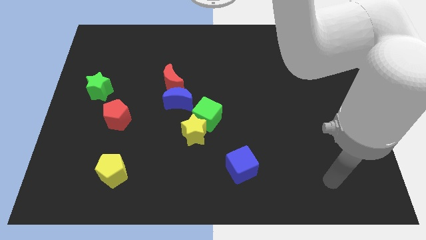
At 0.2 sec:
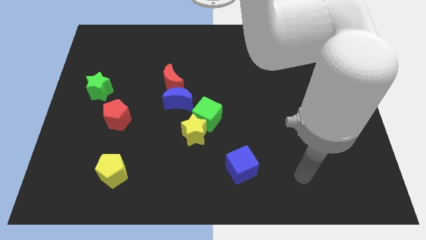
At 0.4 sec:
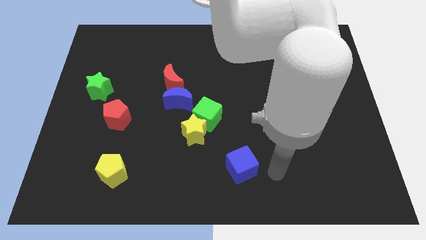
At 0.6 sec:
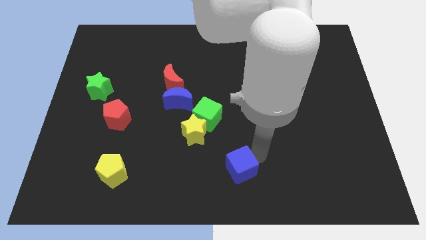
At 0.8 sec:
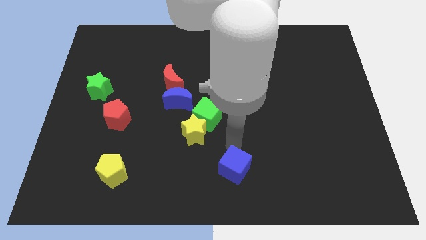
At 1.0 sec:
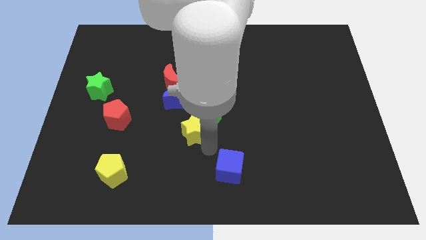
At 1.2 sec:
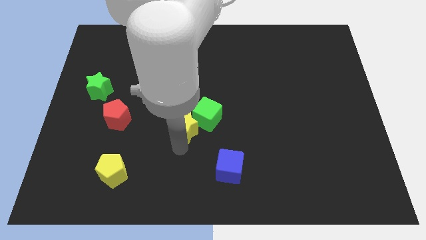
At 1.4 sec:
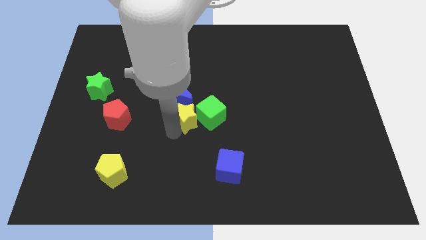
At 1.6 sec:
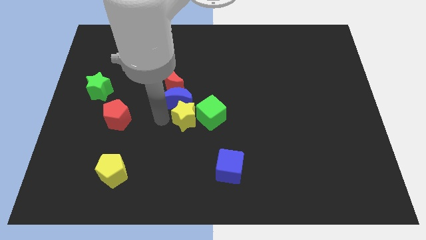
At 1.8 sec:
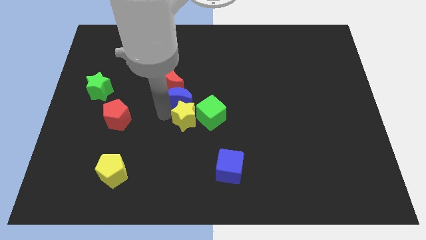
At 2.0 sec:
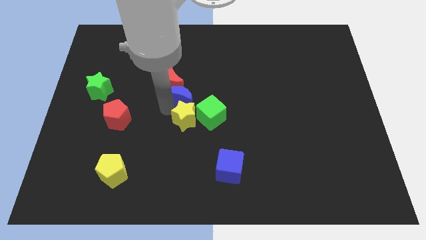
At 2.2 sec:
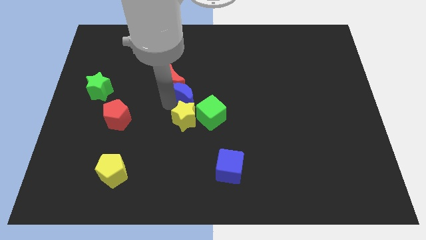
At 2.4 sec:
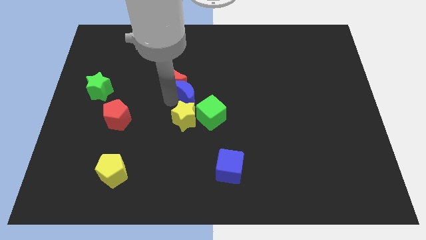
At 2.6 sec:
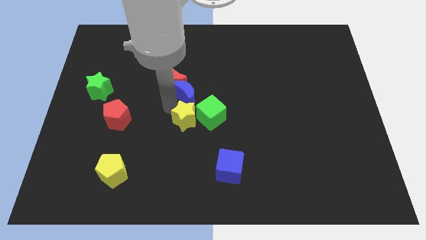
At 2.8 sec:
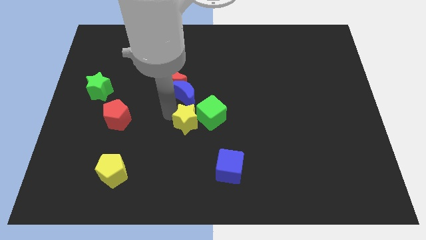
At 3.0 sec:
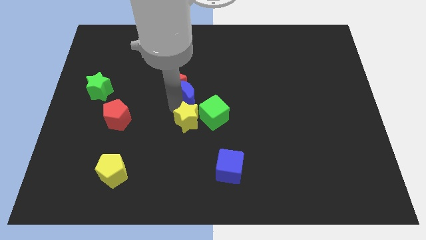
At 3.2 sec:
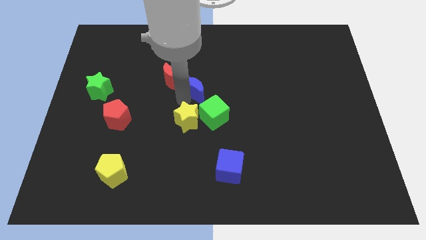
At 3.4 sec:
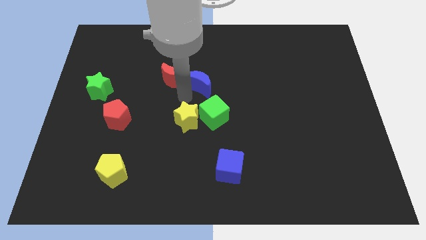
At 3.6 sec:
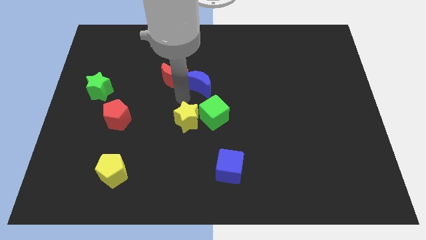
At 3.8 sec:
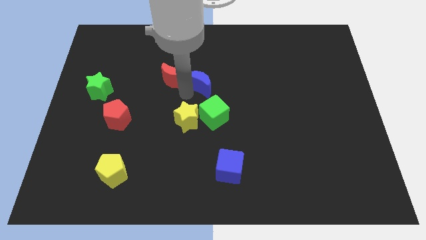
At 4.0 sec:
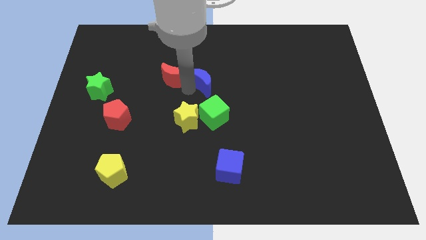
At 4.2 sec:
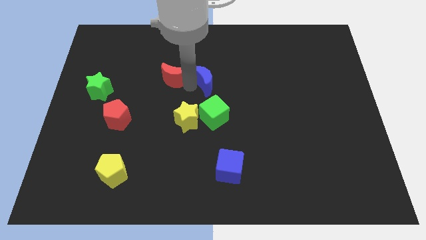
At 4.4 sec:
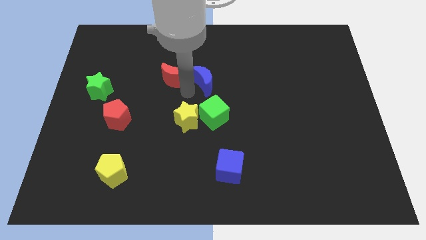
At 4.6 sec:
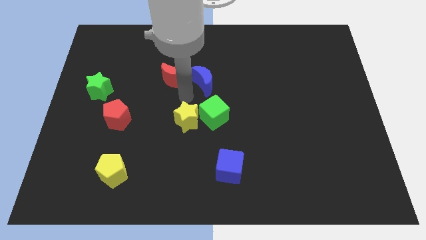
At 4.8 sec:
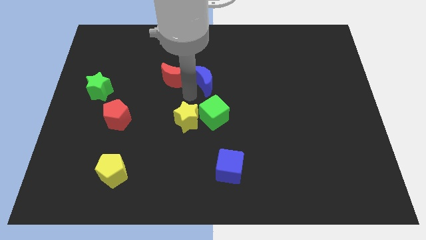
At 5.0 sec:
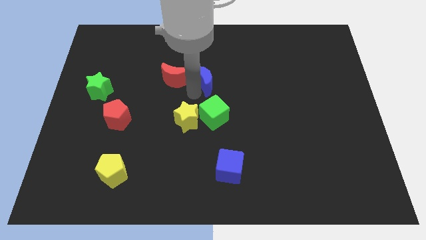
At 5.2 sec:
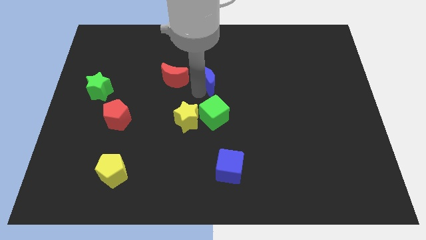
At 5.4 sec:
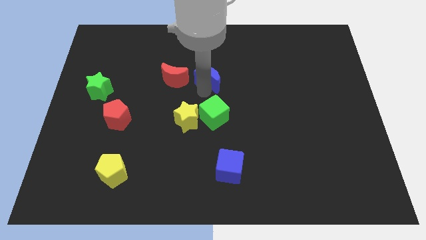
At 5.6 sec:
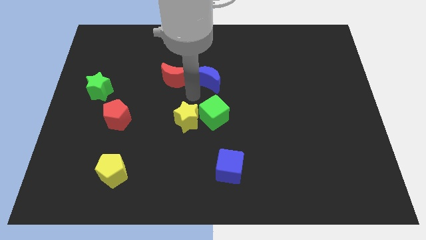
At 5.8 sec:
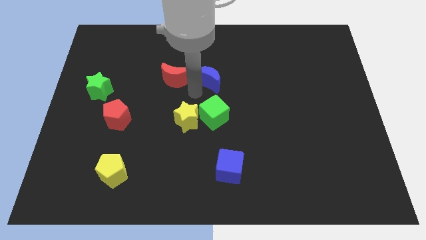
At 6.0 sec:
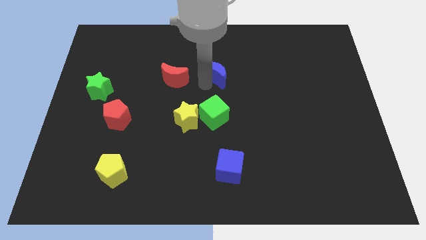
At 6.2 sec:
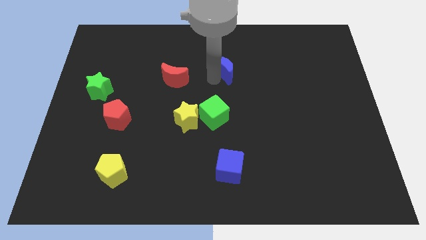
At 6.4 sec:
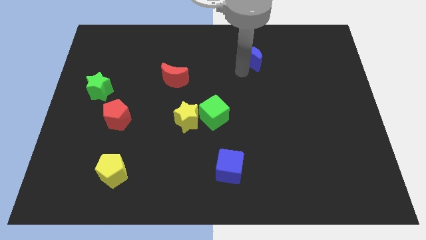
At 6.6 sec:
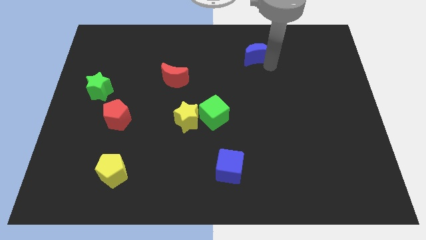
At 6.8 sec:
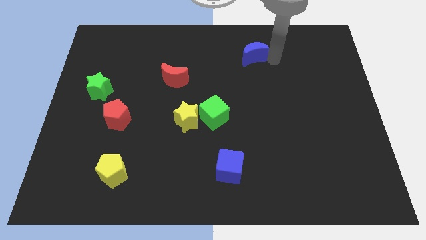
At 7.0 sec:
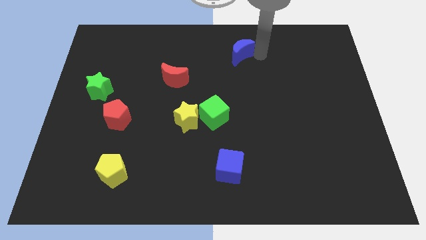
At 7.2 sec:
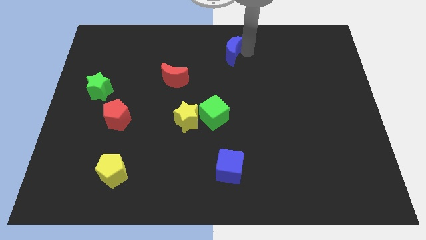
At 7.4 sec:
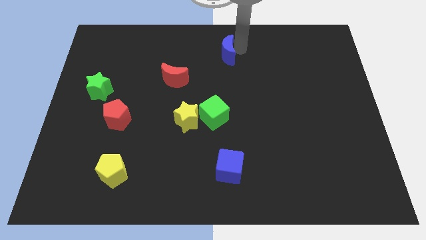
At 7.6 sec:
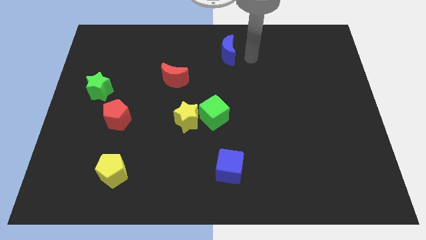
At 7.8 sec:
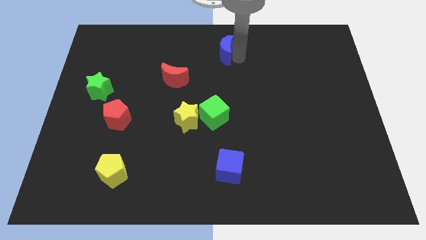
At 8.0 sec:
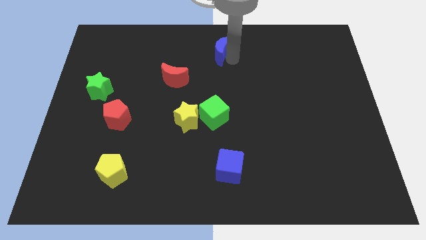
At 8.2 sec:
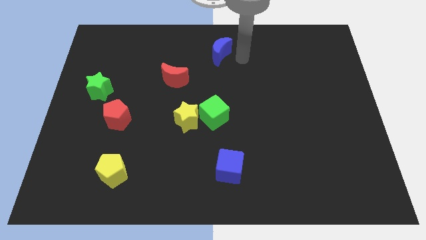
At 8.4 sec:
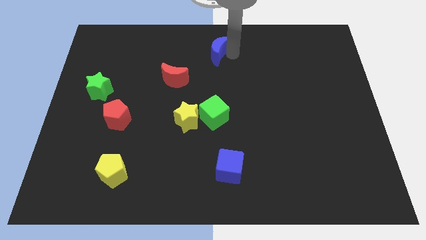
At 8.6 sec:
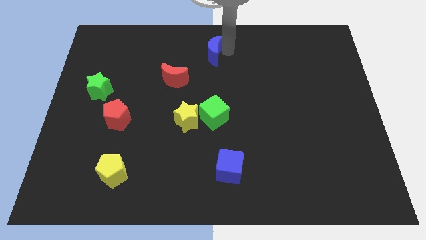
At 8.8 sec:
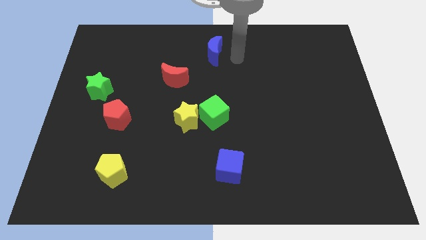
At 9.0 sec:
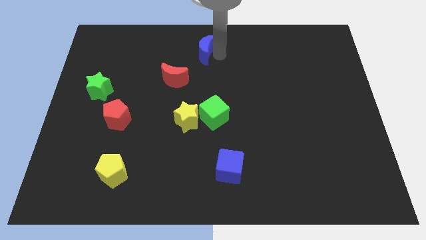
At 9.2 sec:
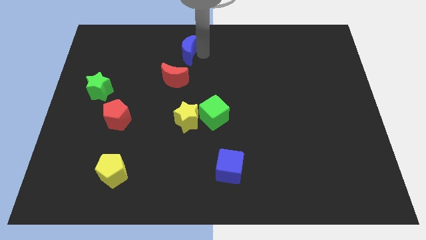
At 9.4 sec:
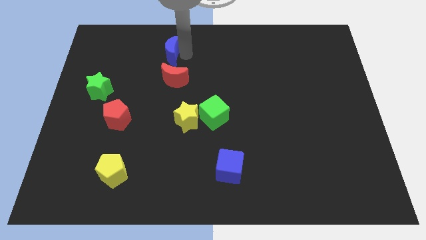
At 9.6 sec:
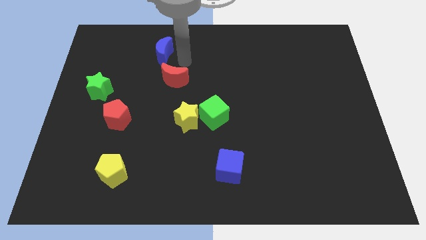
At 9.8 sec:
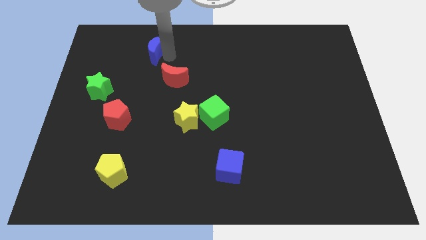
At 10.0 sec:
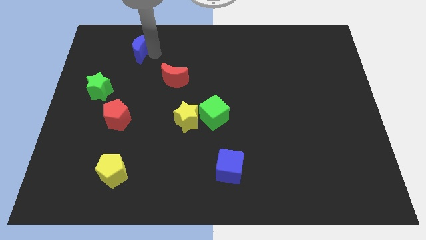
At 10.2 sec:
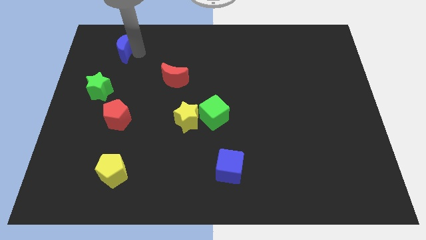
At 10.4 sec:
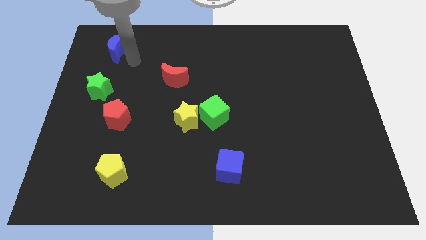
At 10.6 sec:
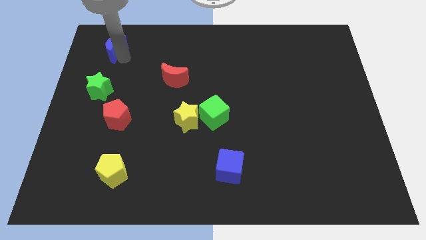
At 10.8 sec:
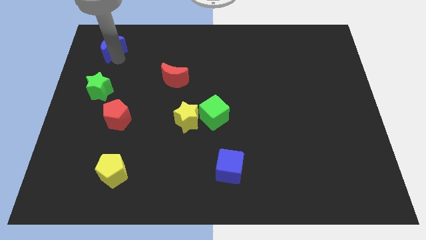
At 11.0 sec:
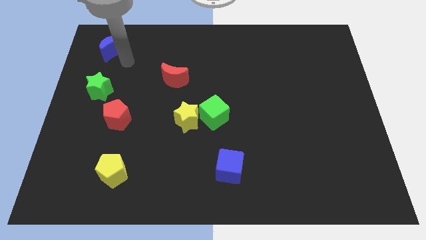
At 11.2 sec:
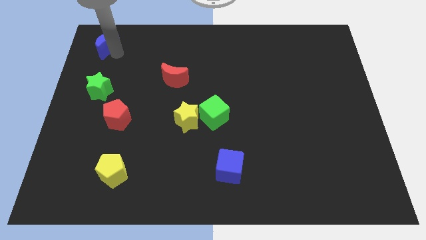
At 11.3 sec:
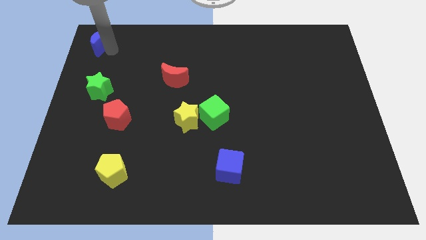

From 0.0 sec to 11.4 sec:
push the blue moon to the upper left corner

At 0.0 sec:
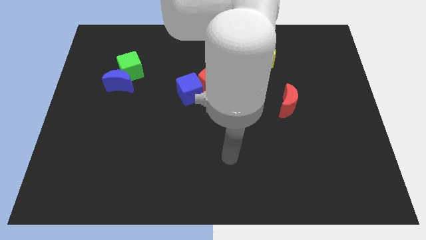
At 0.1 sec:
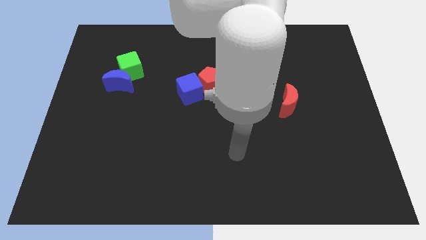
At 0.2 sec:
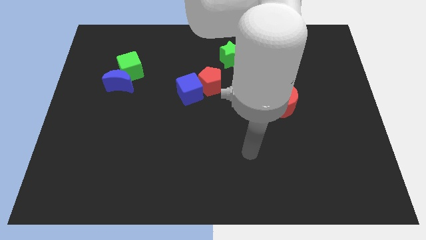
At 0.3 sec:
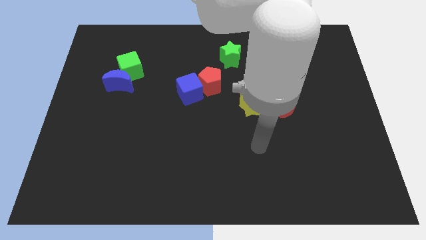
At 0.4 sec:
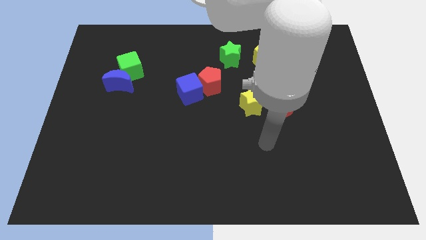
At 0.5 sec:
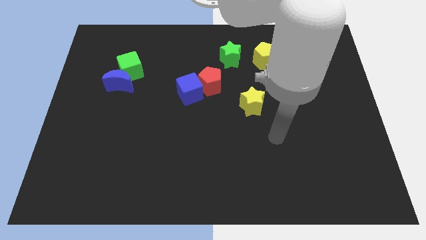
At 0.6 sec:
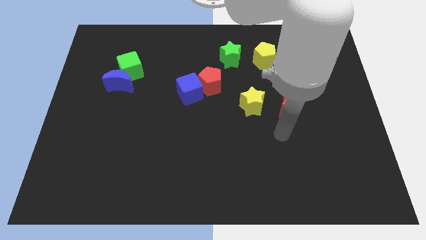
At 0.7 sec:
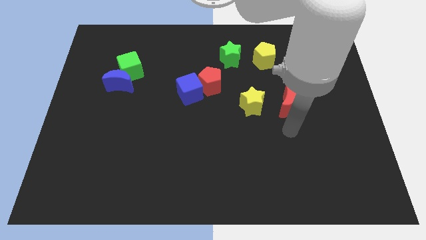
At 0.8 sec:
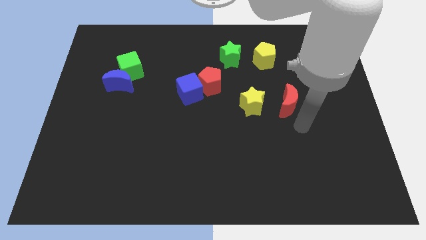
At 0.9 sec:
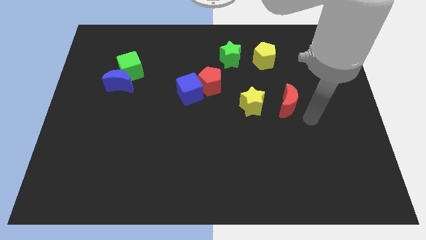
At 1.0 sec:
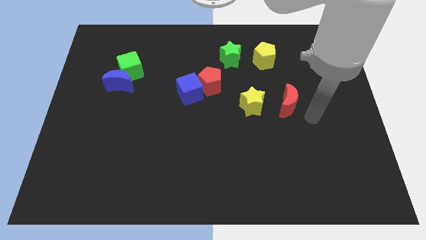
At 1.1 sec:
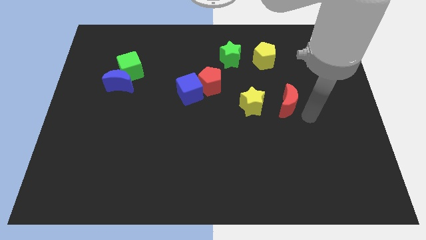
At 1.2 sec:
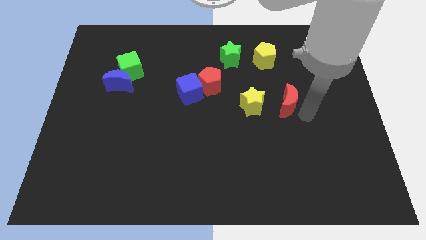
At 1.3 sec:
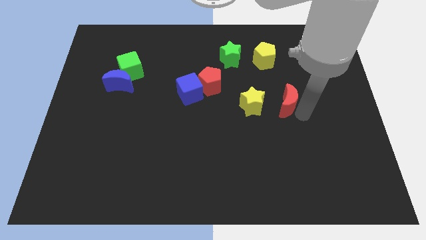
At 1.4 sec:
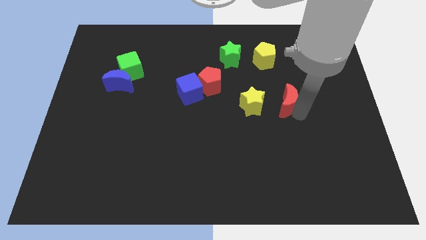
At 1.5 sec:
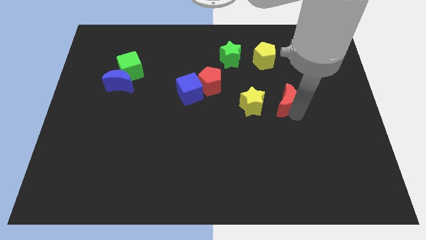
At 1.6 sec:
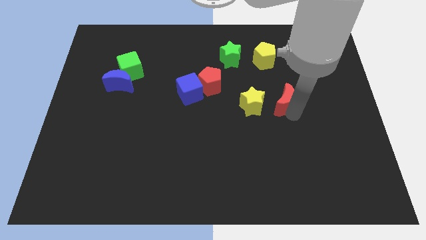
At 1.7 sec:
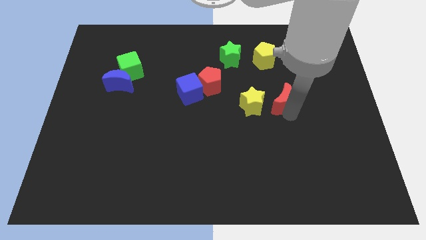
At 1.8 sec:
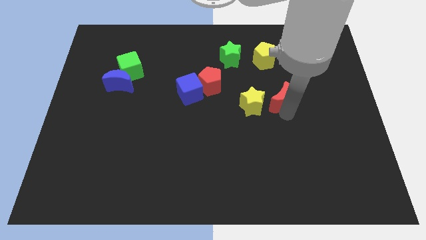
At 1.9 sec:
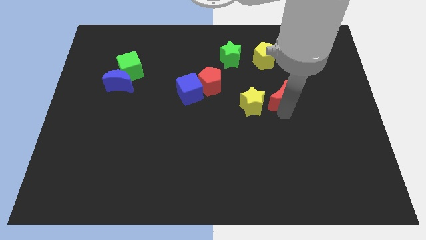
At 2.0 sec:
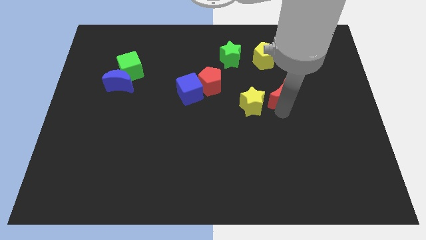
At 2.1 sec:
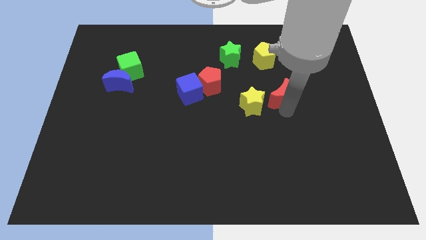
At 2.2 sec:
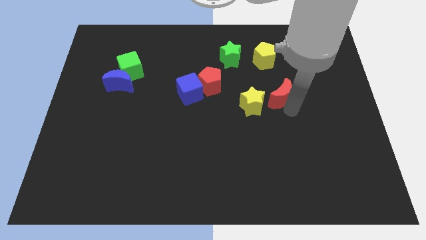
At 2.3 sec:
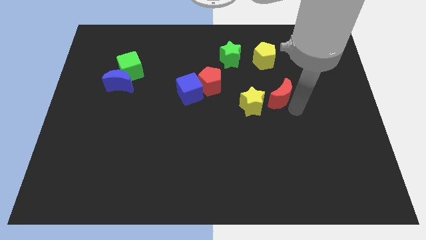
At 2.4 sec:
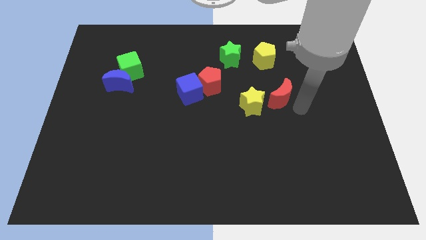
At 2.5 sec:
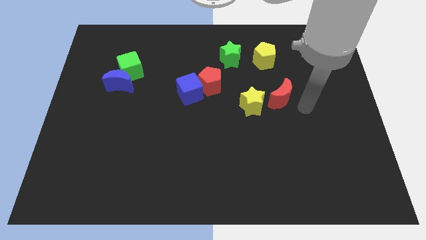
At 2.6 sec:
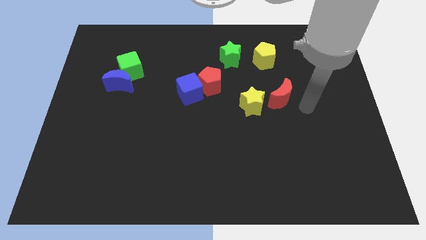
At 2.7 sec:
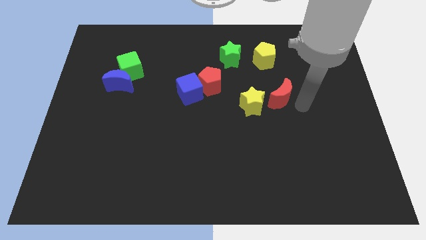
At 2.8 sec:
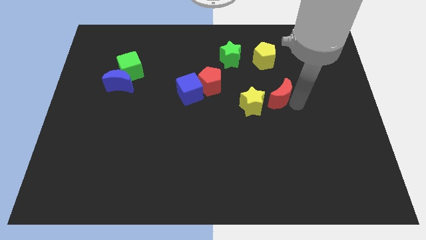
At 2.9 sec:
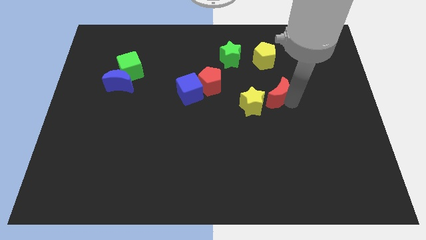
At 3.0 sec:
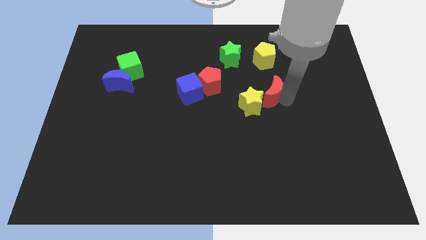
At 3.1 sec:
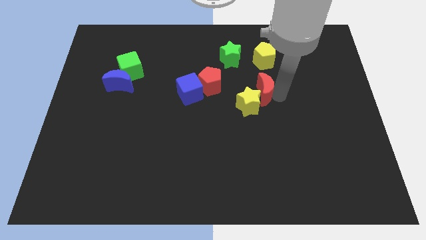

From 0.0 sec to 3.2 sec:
put the red moon to the middle of the board
